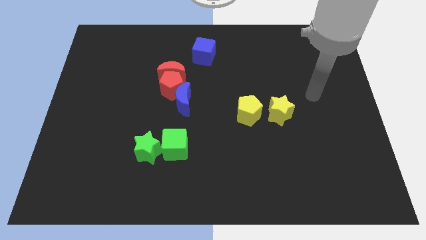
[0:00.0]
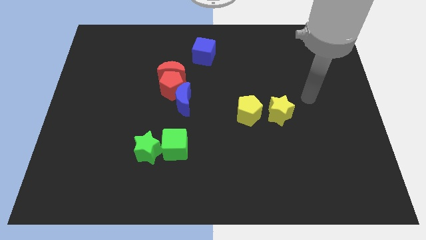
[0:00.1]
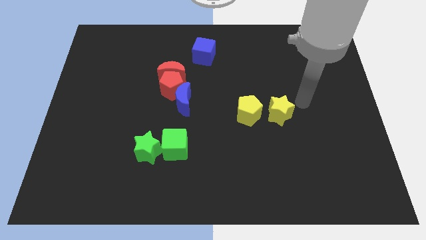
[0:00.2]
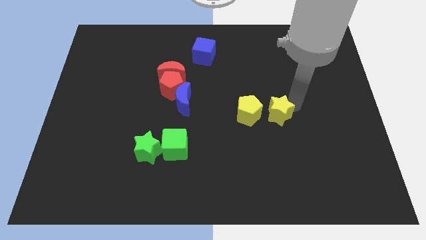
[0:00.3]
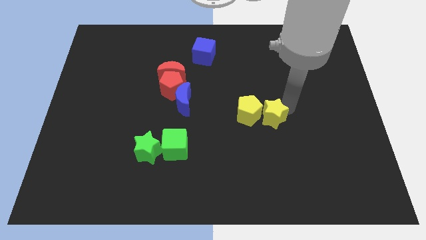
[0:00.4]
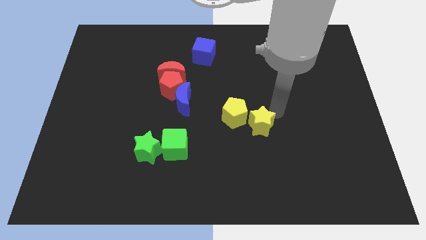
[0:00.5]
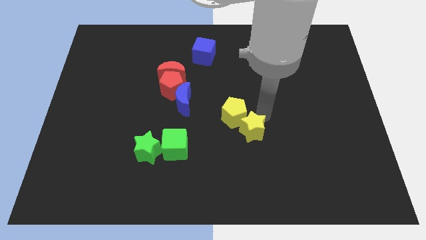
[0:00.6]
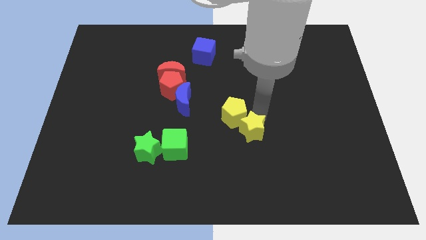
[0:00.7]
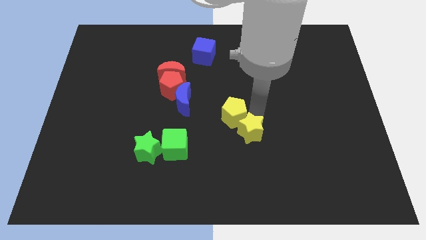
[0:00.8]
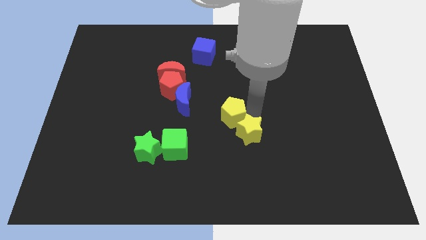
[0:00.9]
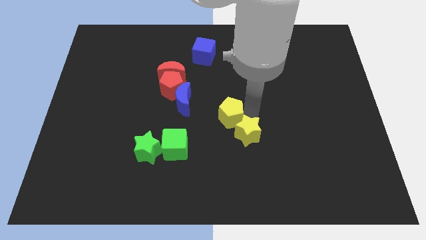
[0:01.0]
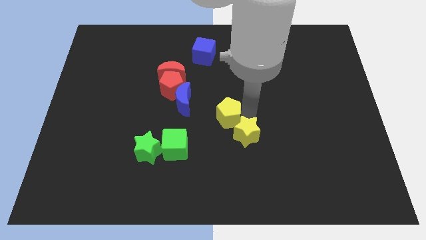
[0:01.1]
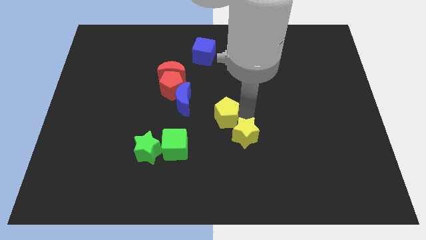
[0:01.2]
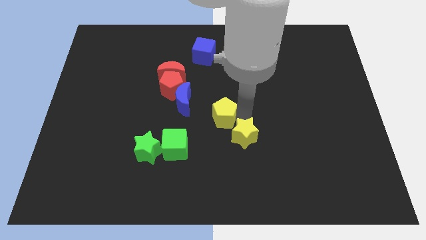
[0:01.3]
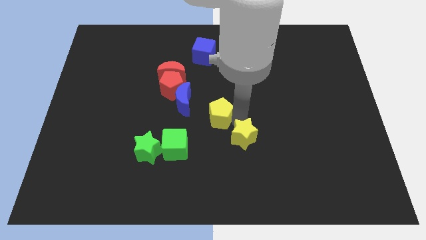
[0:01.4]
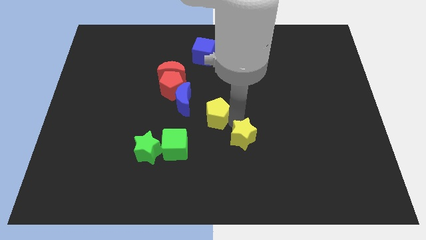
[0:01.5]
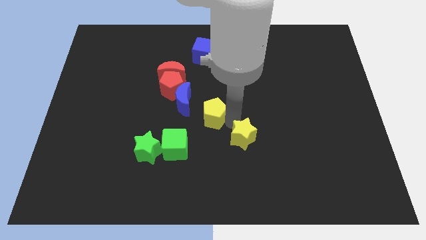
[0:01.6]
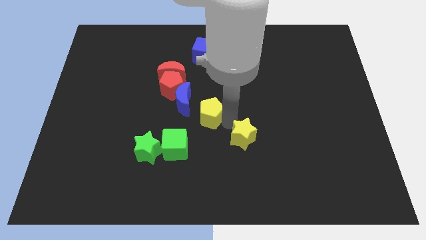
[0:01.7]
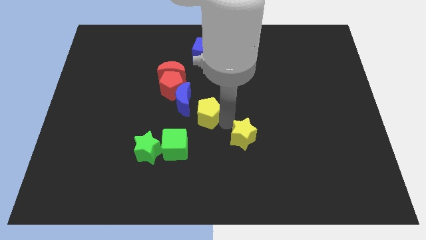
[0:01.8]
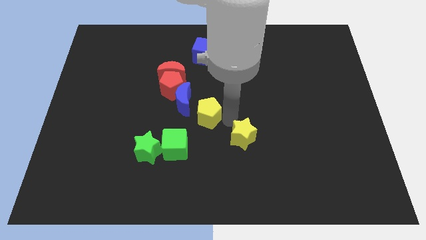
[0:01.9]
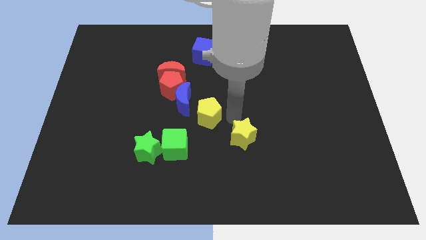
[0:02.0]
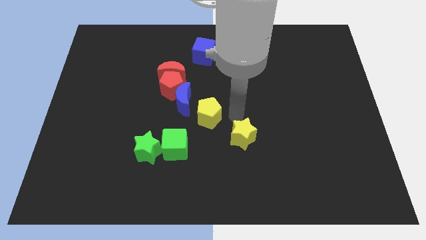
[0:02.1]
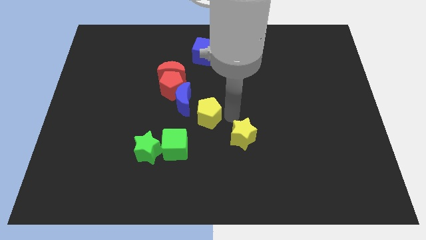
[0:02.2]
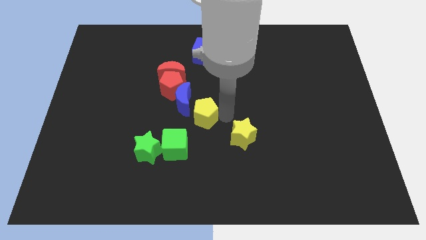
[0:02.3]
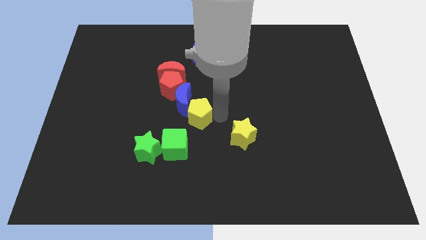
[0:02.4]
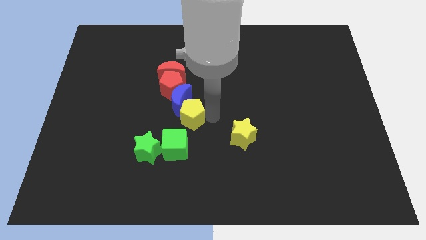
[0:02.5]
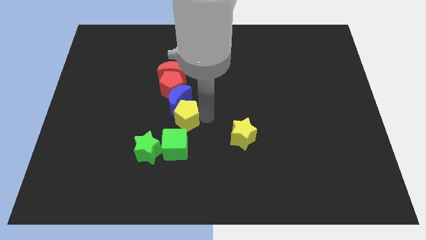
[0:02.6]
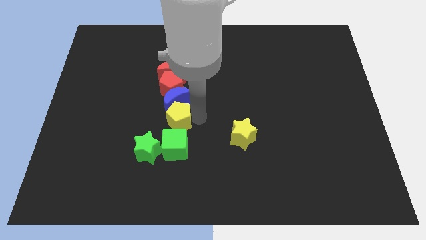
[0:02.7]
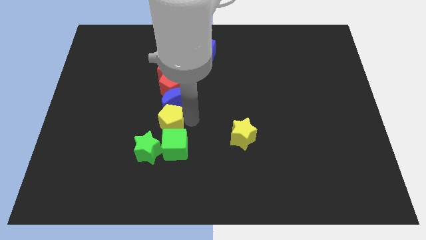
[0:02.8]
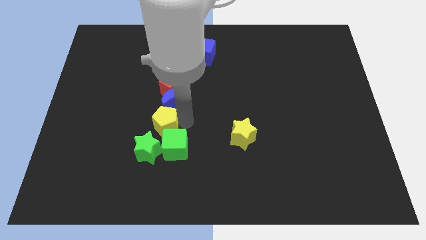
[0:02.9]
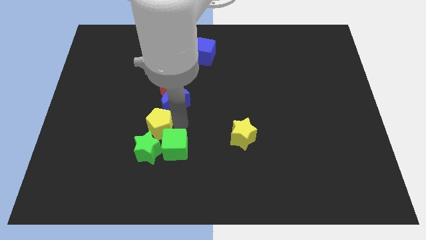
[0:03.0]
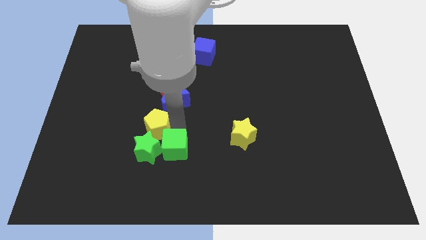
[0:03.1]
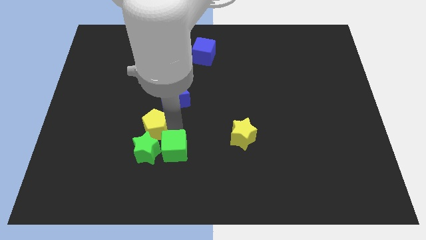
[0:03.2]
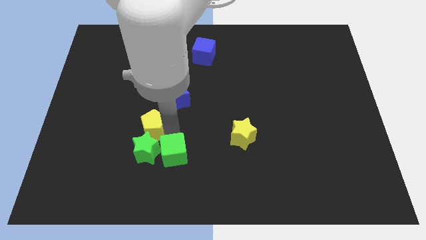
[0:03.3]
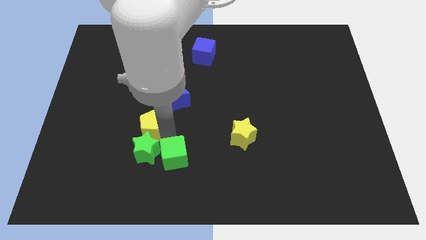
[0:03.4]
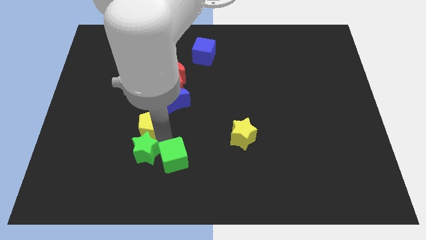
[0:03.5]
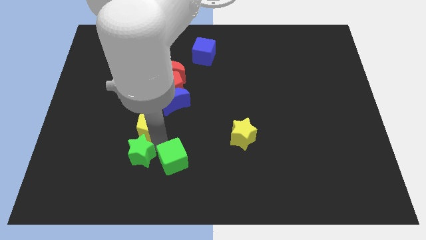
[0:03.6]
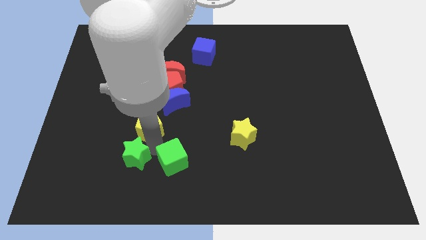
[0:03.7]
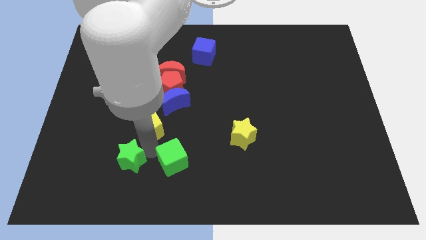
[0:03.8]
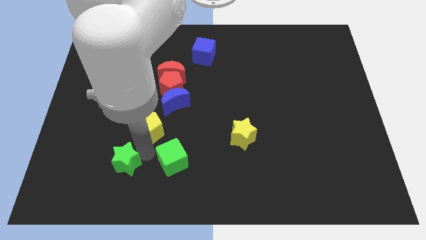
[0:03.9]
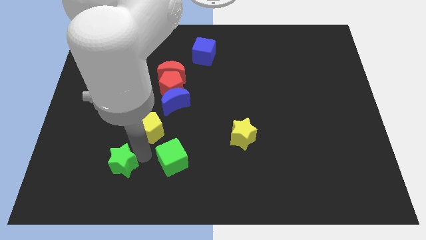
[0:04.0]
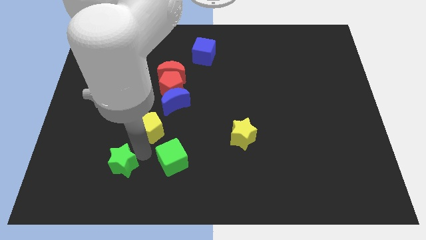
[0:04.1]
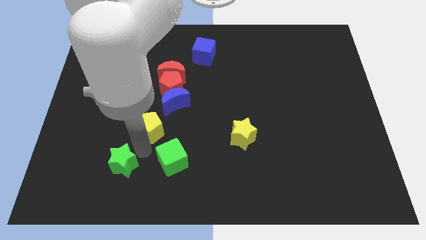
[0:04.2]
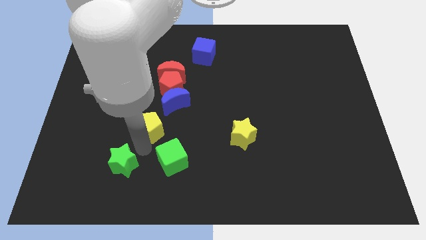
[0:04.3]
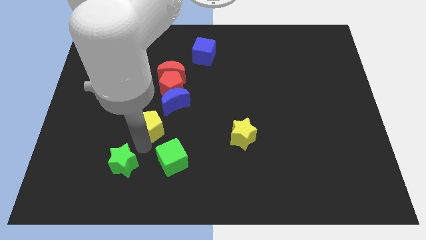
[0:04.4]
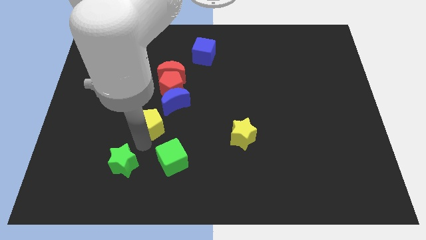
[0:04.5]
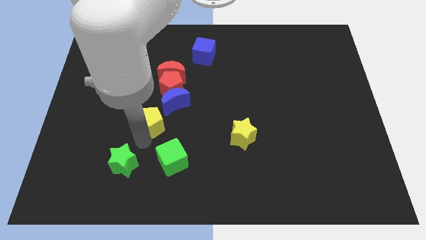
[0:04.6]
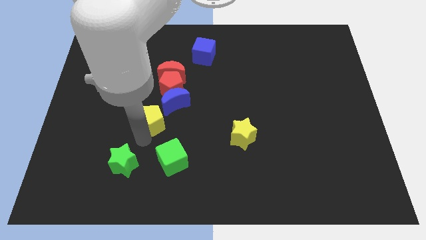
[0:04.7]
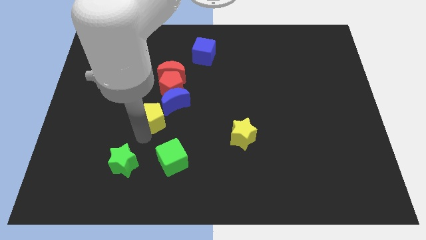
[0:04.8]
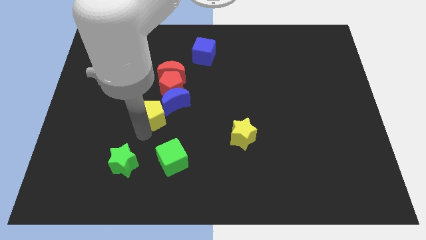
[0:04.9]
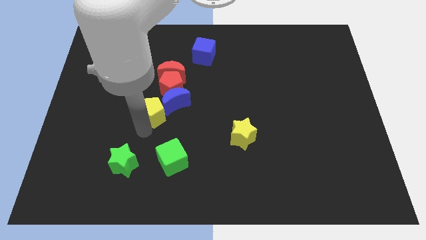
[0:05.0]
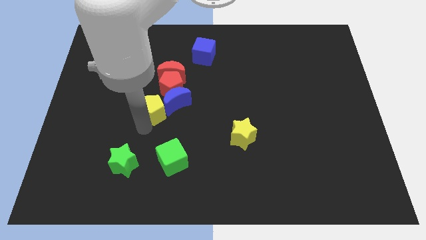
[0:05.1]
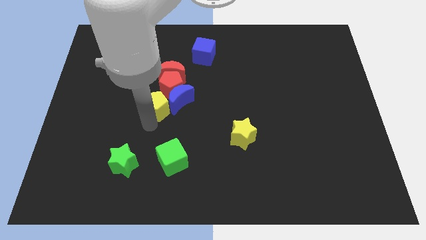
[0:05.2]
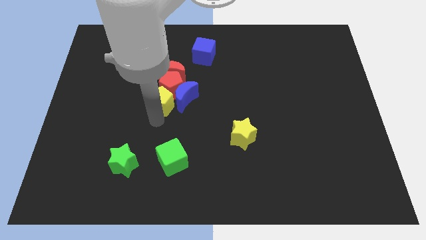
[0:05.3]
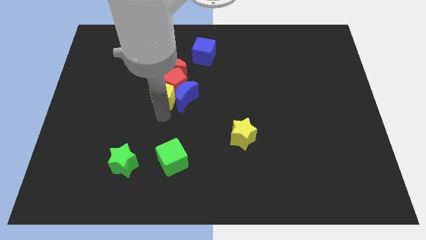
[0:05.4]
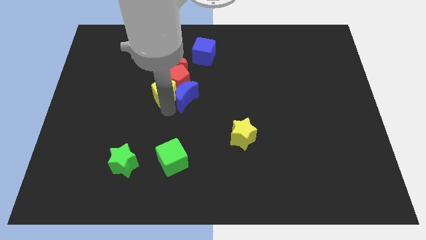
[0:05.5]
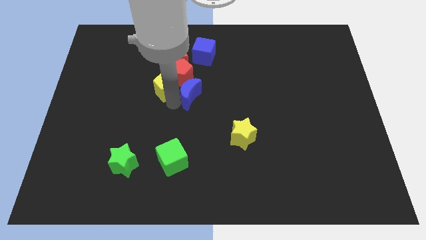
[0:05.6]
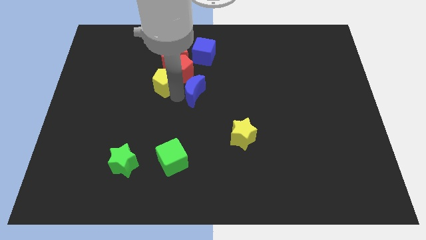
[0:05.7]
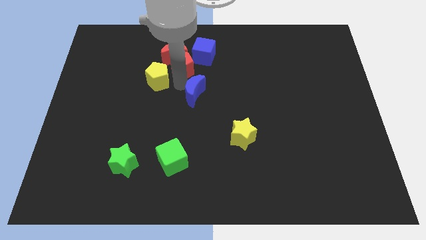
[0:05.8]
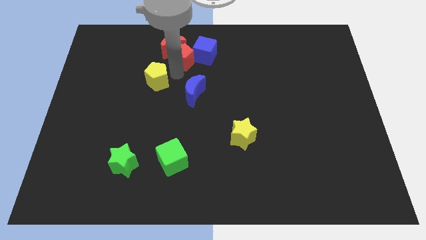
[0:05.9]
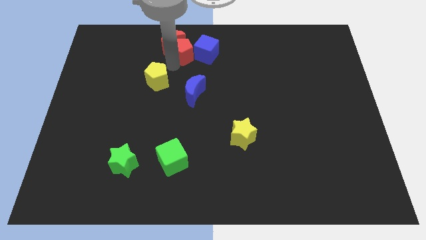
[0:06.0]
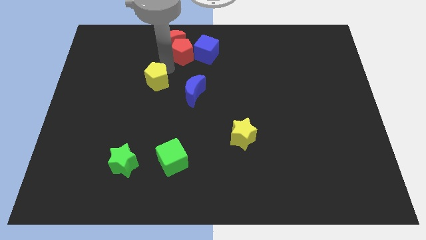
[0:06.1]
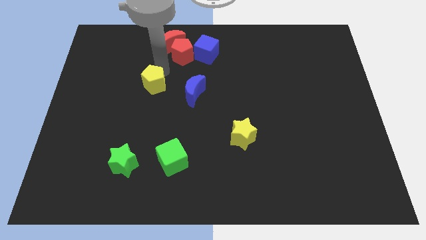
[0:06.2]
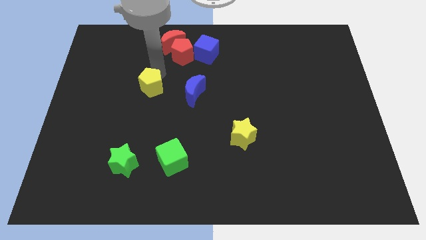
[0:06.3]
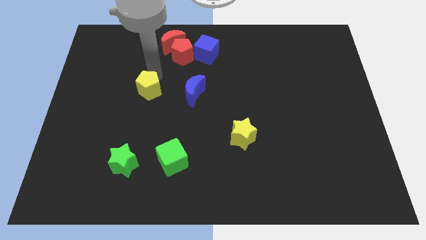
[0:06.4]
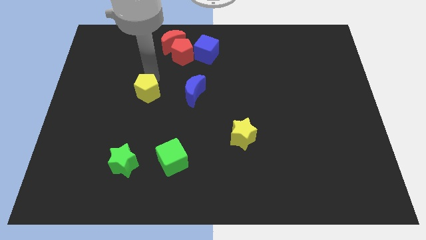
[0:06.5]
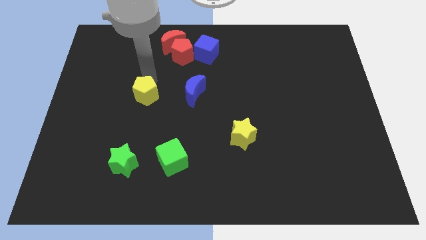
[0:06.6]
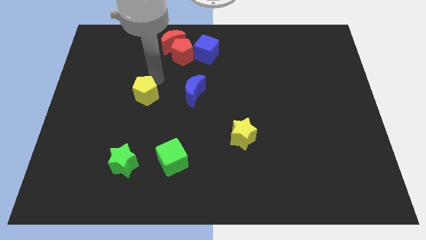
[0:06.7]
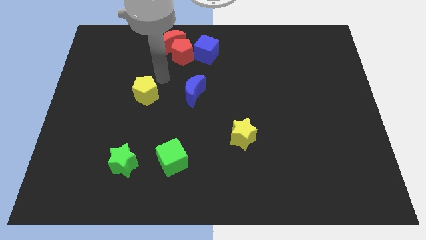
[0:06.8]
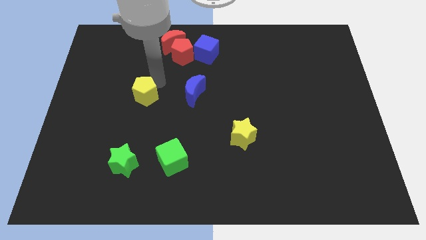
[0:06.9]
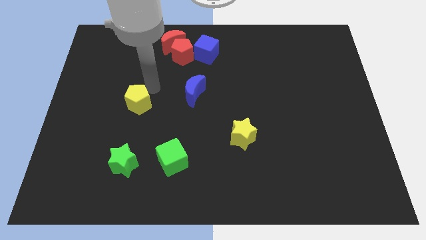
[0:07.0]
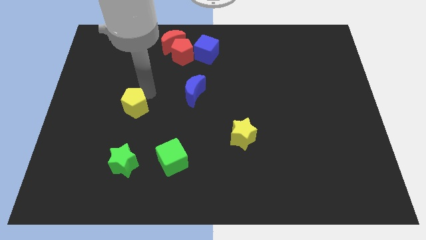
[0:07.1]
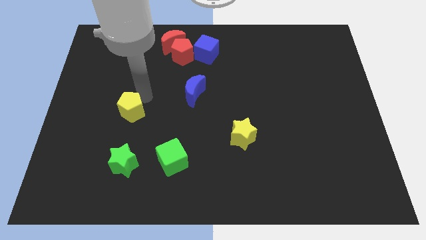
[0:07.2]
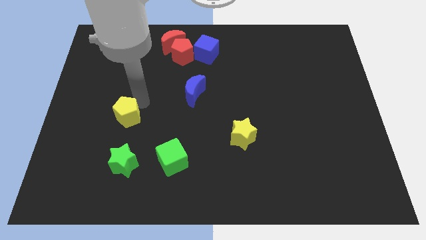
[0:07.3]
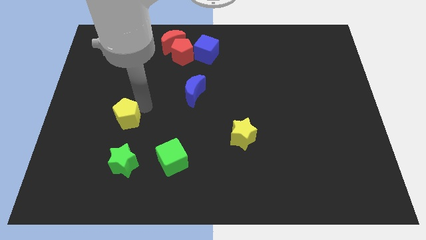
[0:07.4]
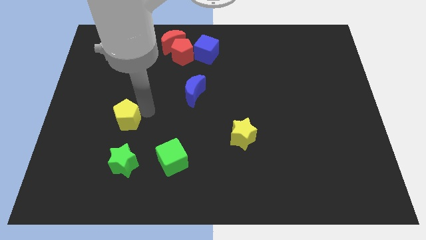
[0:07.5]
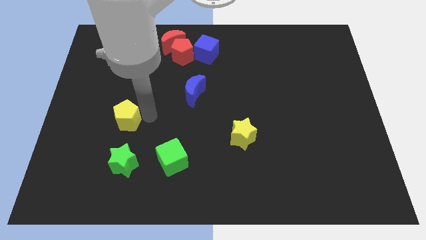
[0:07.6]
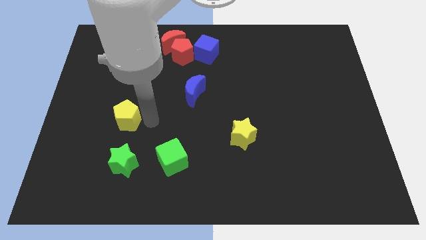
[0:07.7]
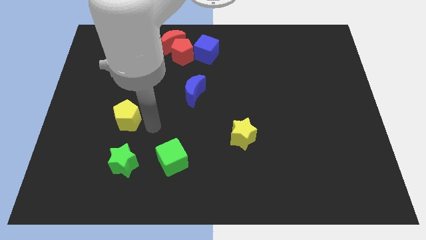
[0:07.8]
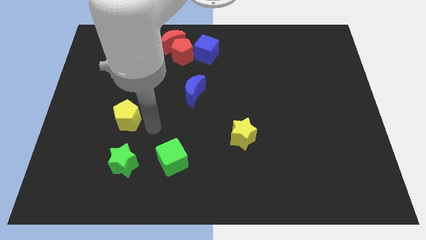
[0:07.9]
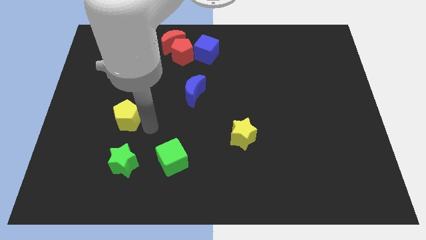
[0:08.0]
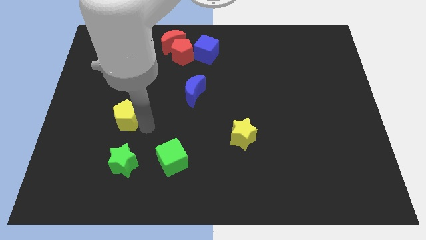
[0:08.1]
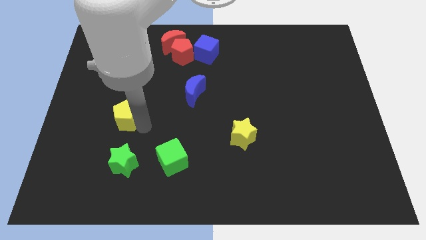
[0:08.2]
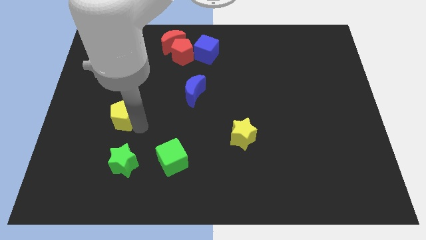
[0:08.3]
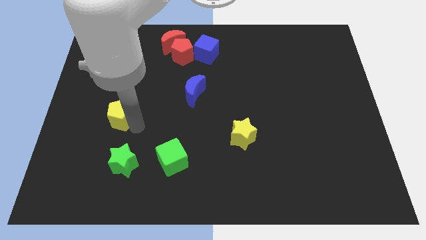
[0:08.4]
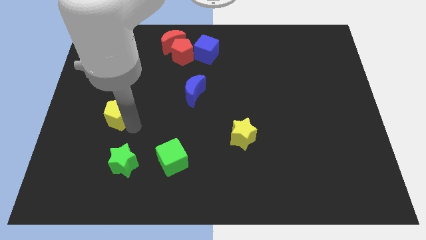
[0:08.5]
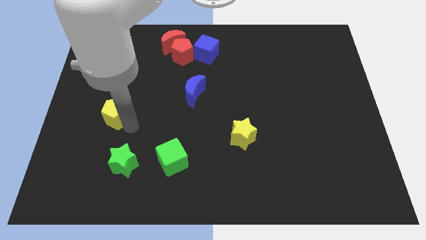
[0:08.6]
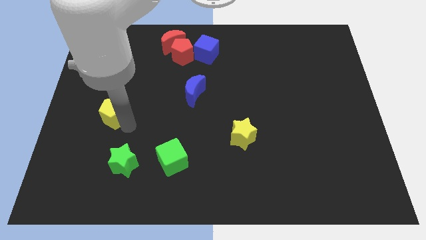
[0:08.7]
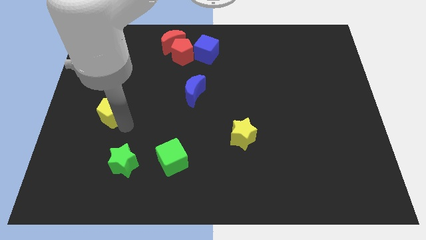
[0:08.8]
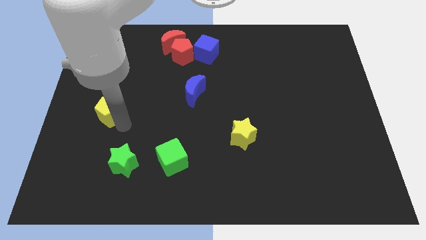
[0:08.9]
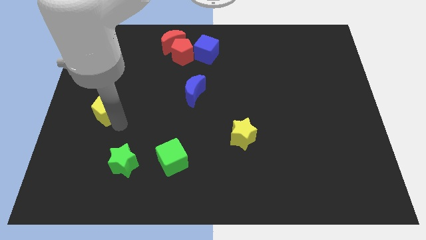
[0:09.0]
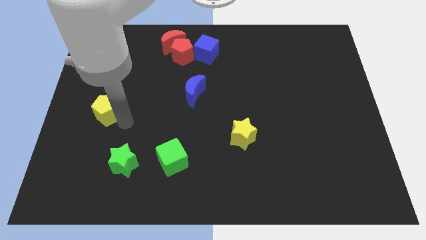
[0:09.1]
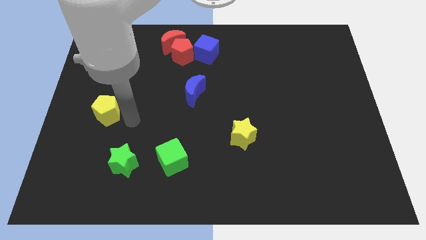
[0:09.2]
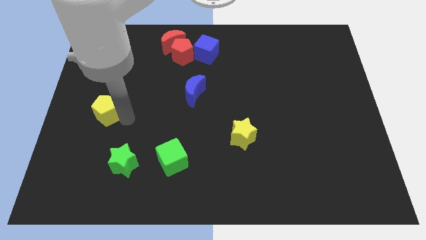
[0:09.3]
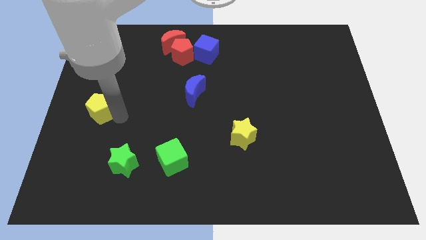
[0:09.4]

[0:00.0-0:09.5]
slide the yellow pentagon to the left side of the board
